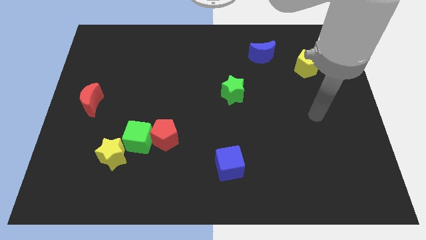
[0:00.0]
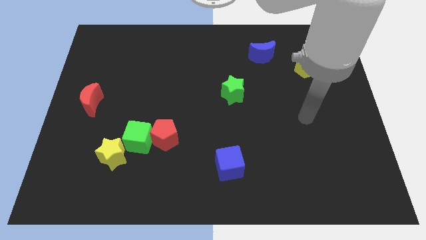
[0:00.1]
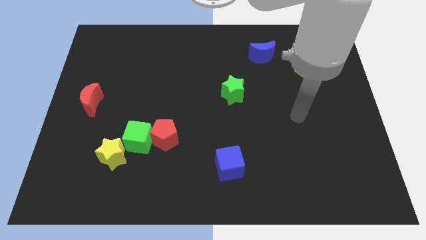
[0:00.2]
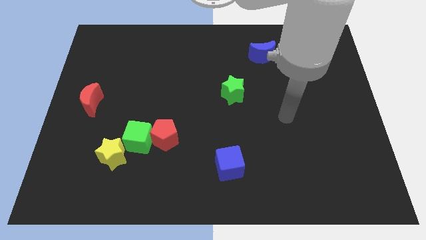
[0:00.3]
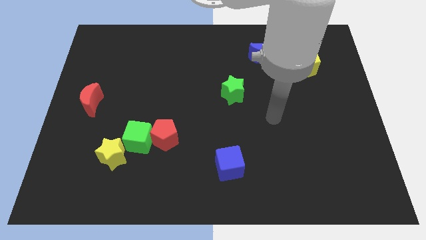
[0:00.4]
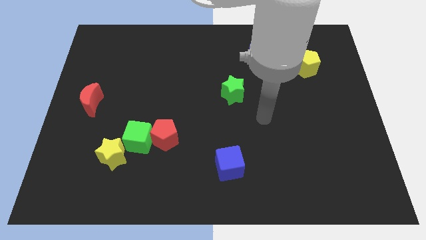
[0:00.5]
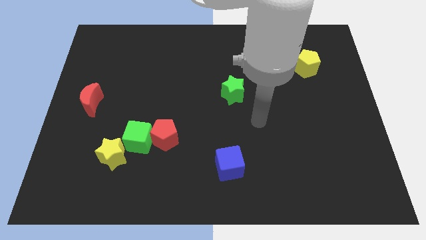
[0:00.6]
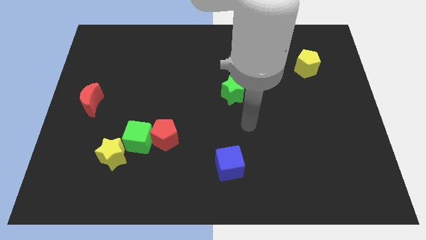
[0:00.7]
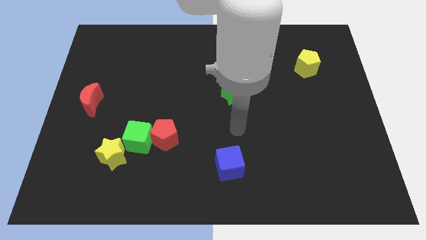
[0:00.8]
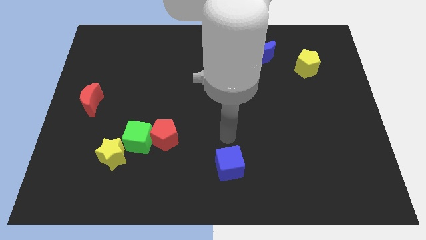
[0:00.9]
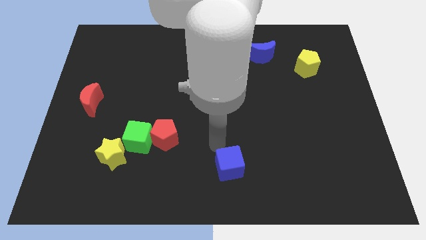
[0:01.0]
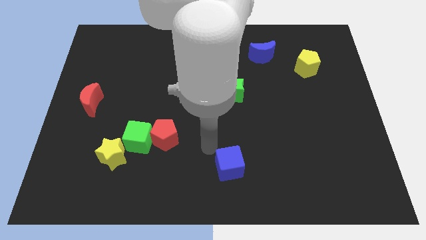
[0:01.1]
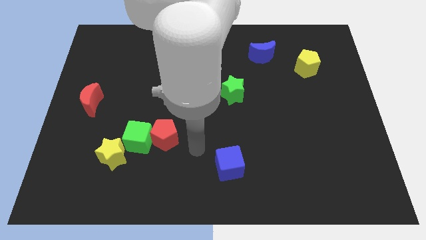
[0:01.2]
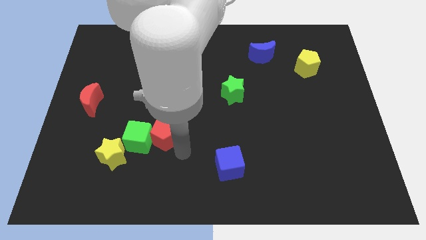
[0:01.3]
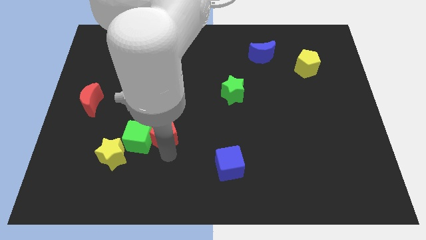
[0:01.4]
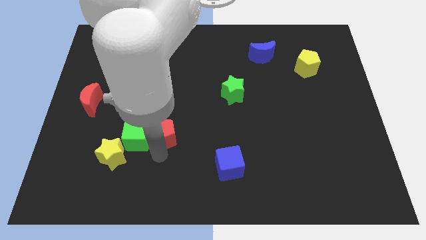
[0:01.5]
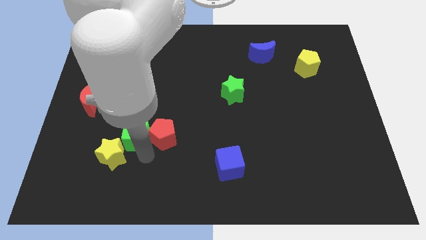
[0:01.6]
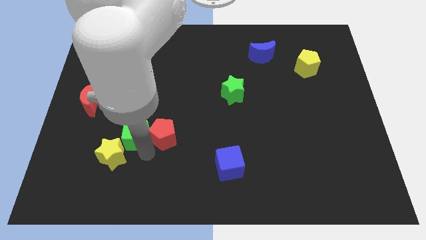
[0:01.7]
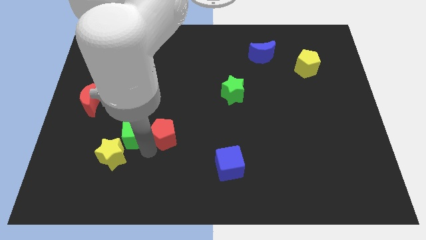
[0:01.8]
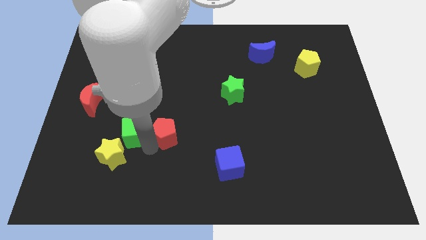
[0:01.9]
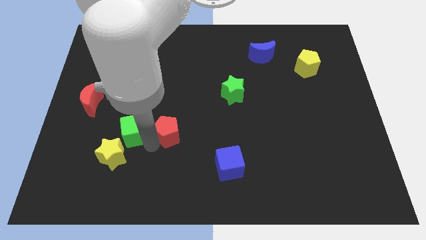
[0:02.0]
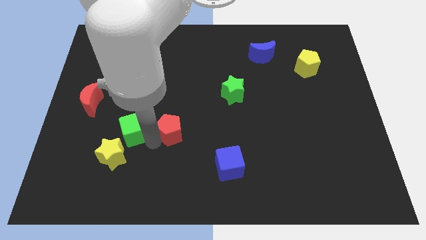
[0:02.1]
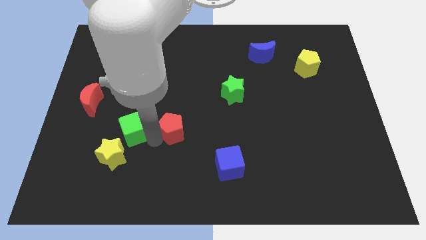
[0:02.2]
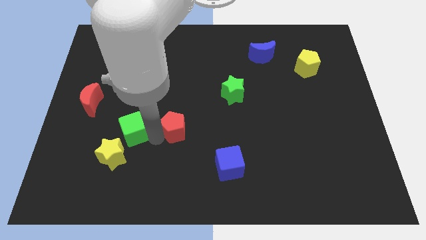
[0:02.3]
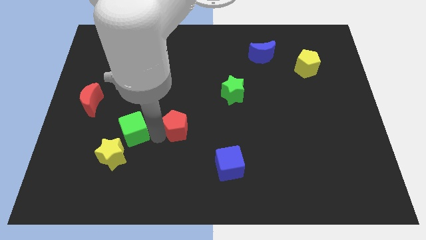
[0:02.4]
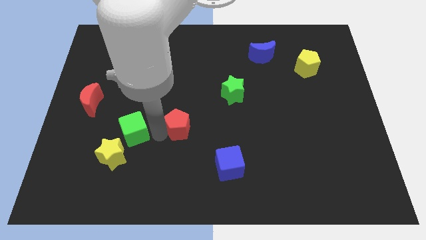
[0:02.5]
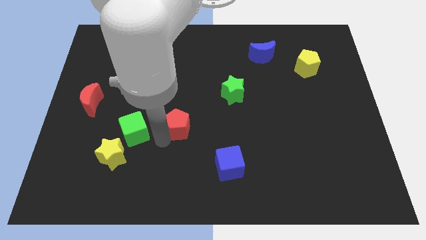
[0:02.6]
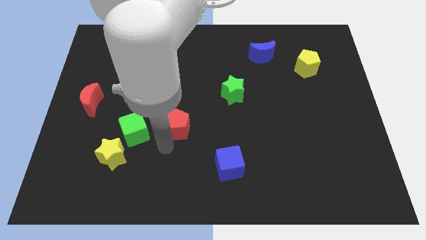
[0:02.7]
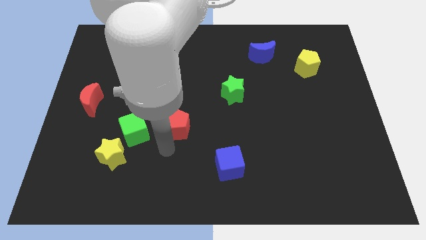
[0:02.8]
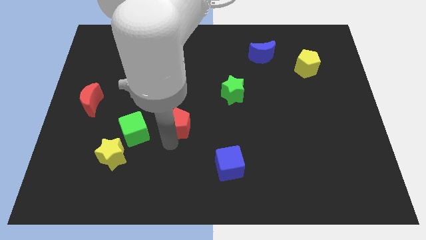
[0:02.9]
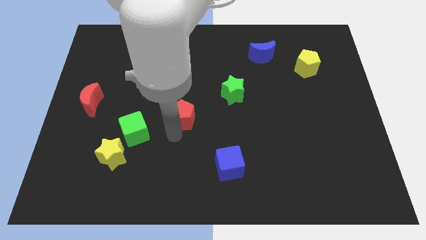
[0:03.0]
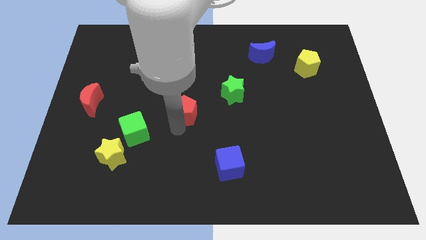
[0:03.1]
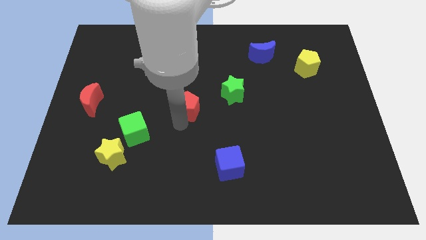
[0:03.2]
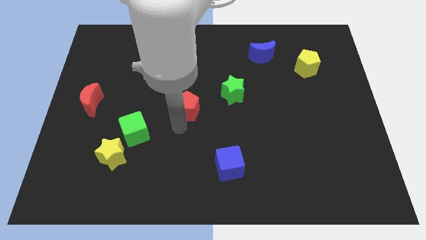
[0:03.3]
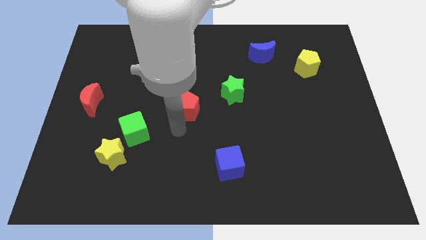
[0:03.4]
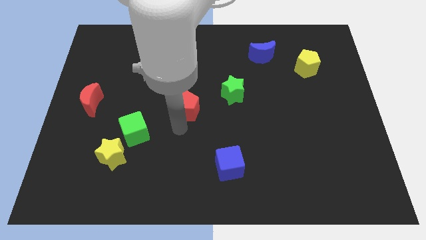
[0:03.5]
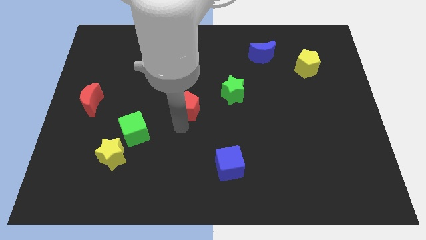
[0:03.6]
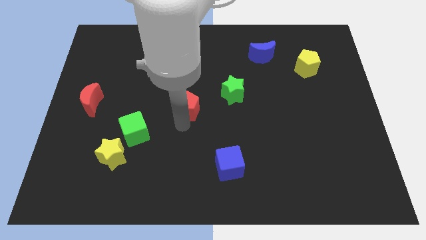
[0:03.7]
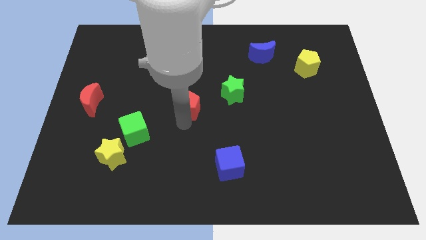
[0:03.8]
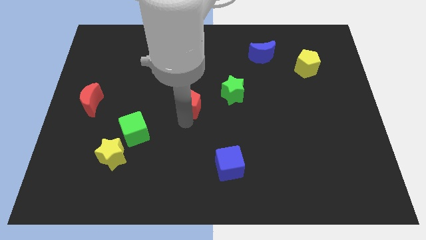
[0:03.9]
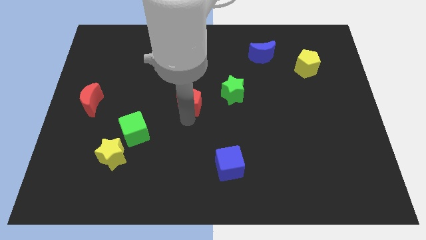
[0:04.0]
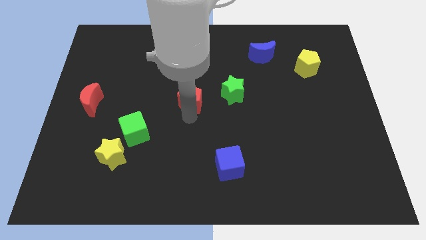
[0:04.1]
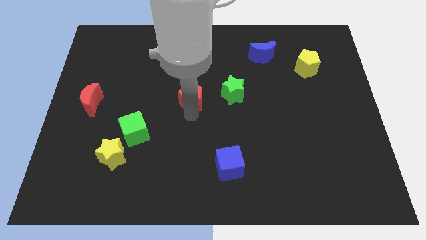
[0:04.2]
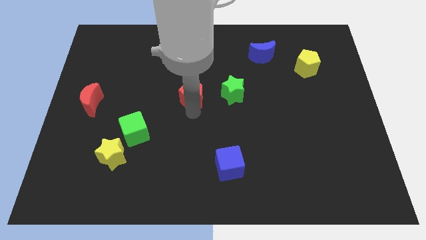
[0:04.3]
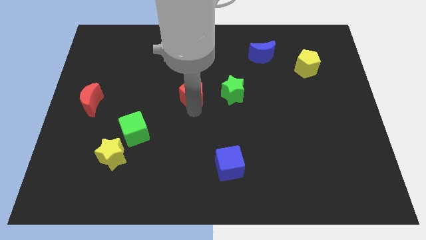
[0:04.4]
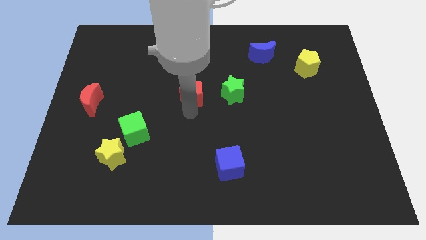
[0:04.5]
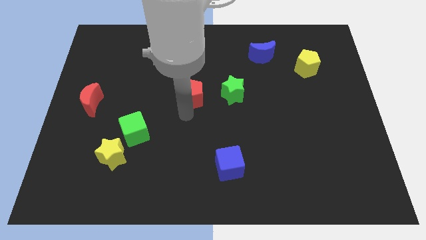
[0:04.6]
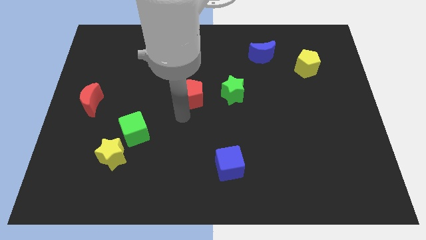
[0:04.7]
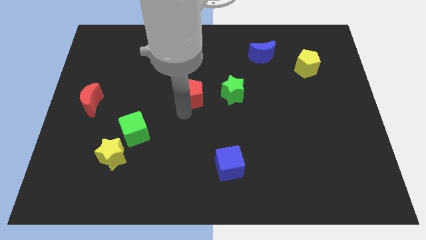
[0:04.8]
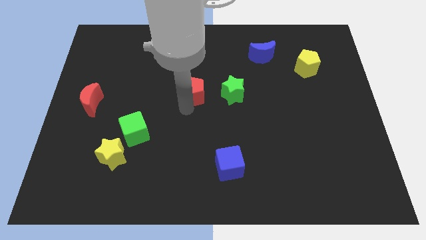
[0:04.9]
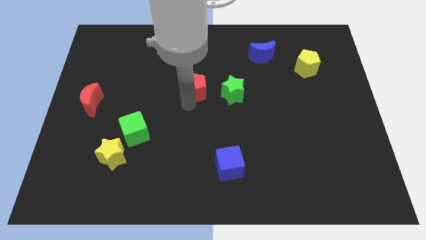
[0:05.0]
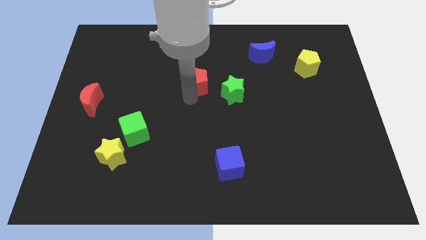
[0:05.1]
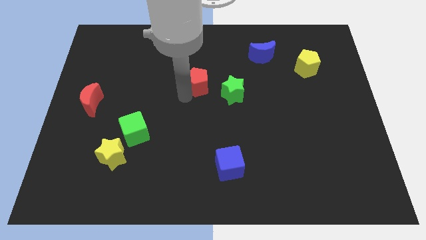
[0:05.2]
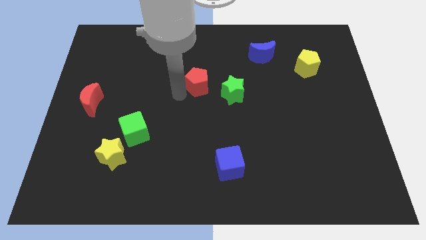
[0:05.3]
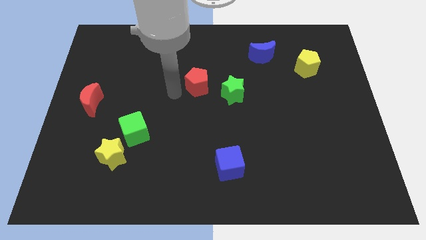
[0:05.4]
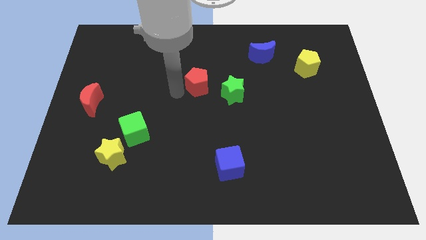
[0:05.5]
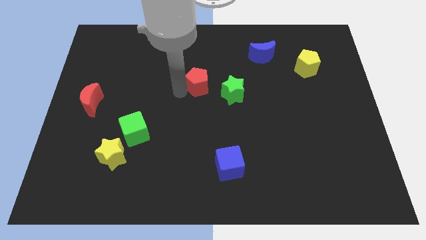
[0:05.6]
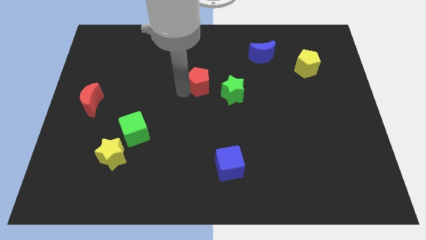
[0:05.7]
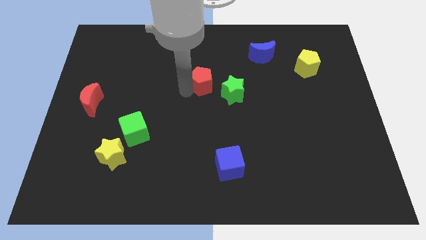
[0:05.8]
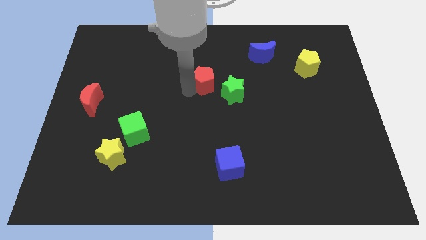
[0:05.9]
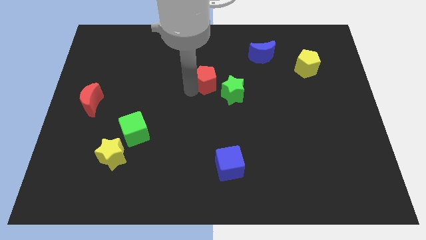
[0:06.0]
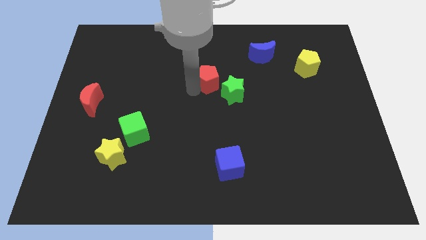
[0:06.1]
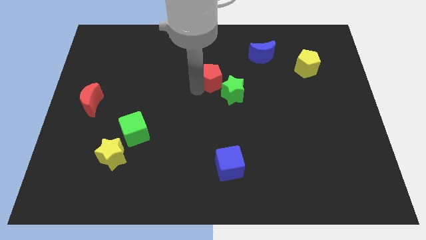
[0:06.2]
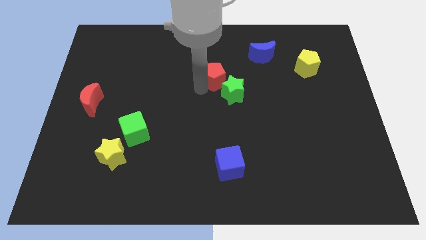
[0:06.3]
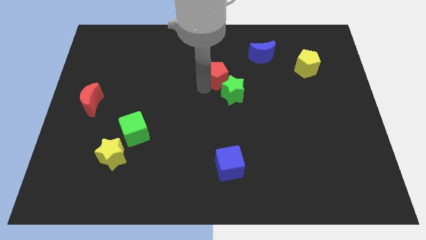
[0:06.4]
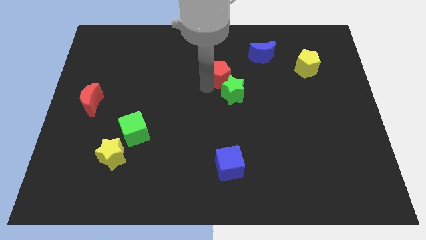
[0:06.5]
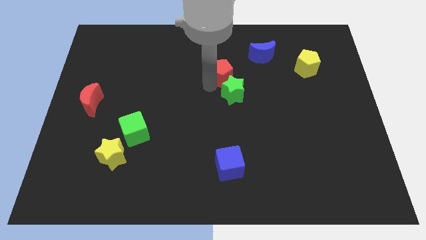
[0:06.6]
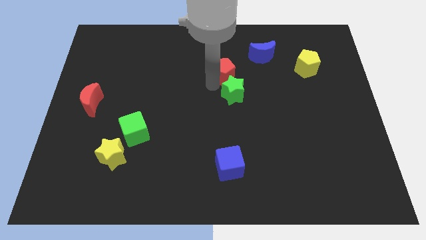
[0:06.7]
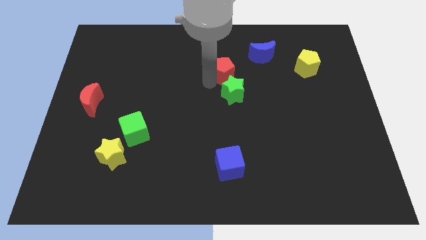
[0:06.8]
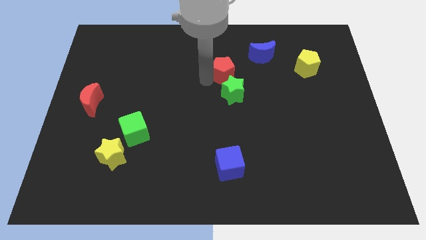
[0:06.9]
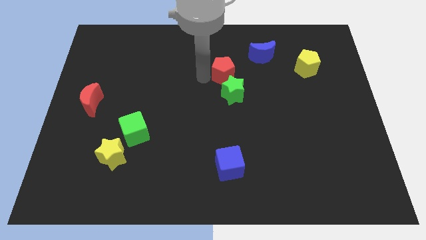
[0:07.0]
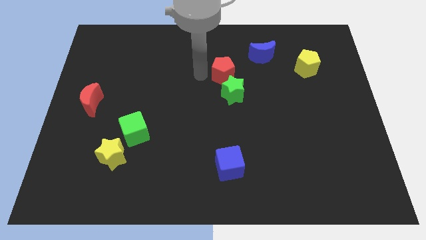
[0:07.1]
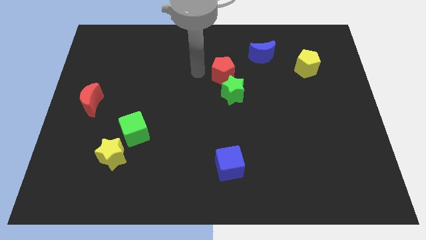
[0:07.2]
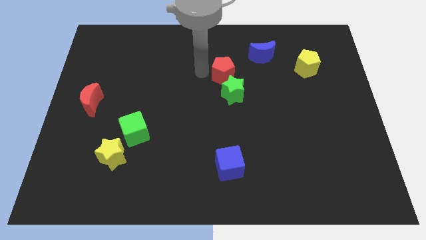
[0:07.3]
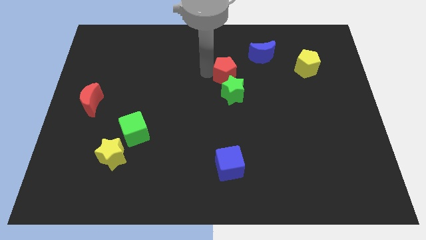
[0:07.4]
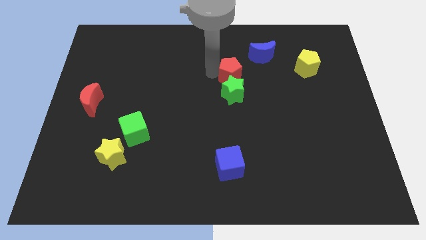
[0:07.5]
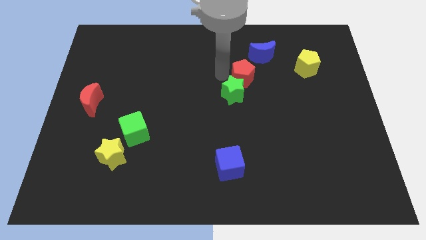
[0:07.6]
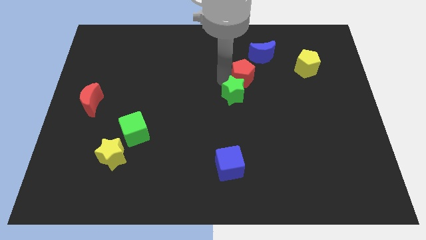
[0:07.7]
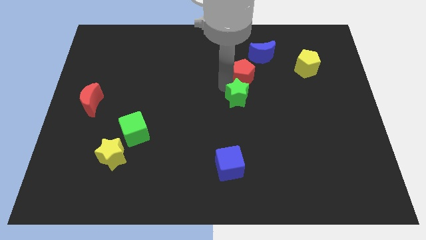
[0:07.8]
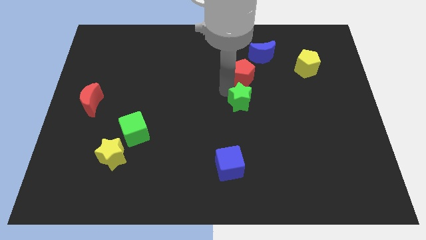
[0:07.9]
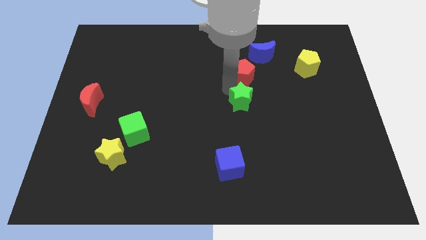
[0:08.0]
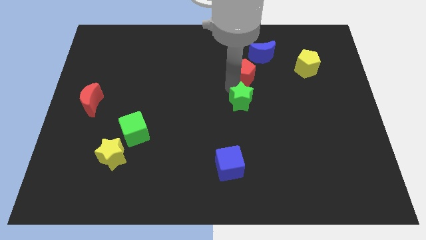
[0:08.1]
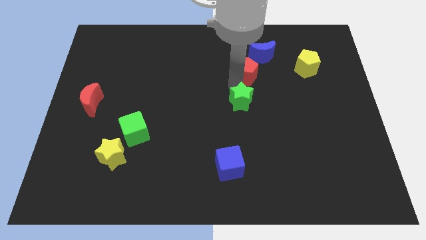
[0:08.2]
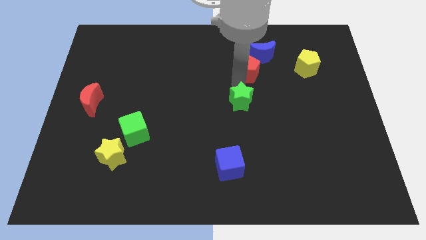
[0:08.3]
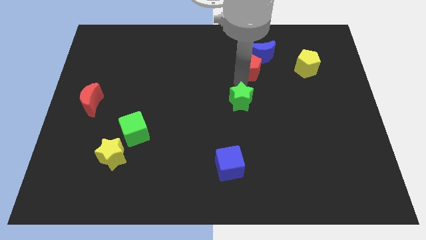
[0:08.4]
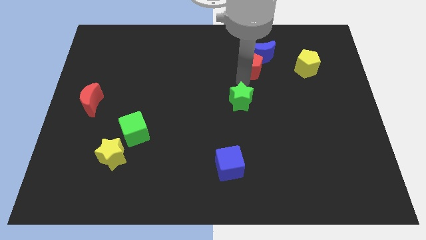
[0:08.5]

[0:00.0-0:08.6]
move the red pentagon towards the blue moon
